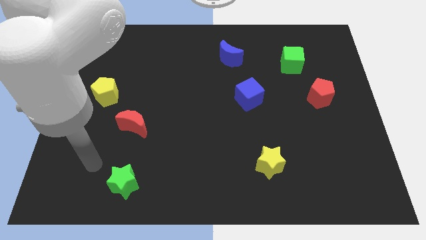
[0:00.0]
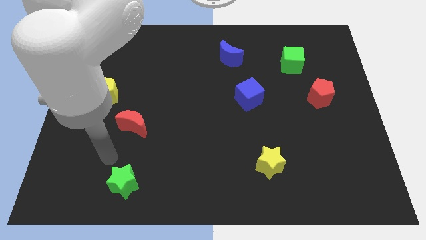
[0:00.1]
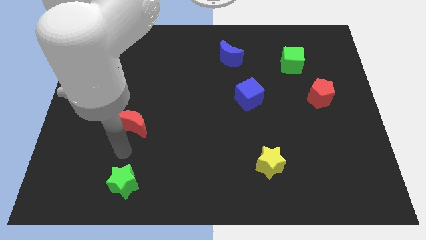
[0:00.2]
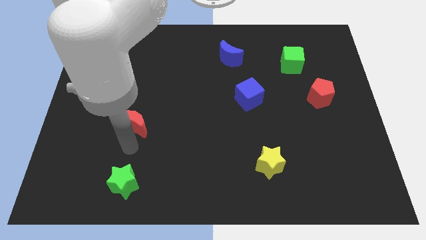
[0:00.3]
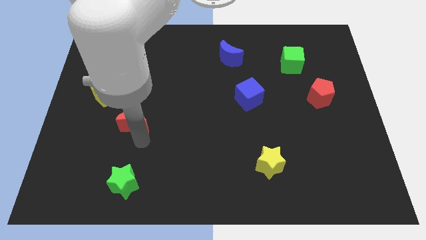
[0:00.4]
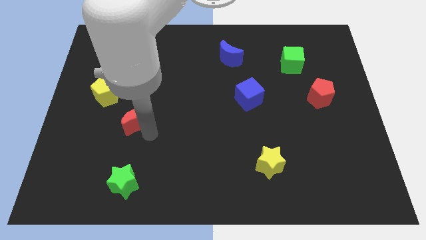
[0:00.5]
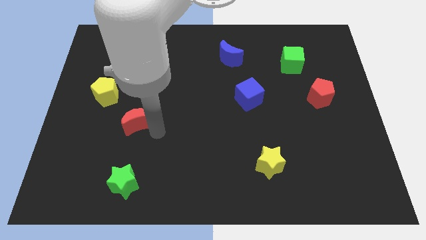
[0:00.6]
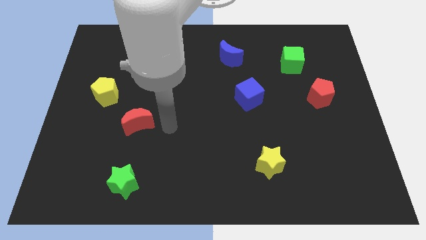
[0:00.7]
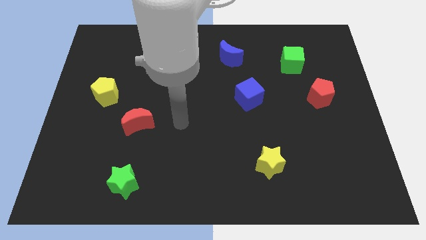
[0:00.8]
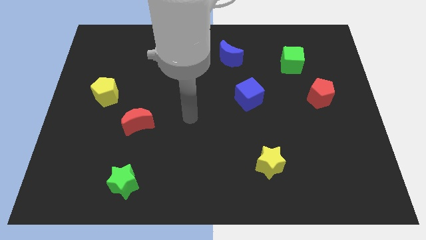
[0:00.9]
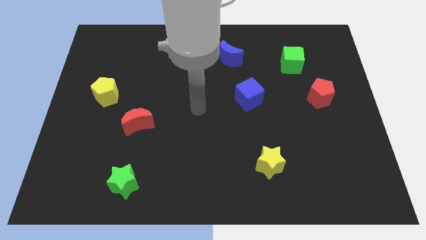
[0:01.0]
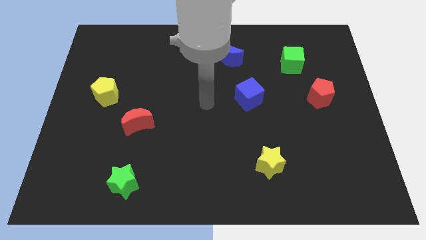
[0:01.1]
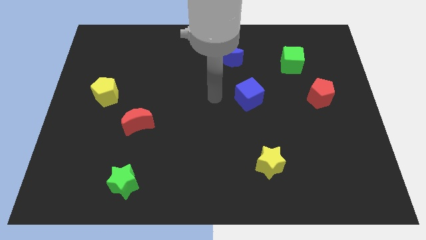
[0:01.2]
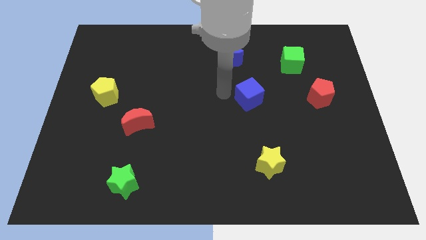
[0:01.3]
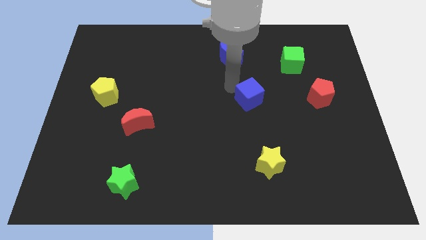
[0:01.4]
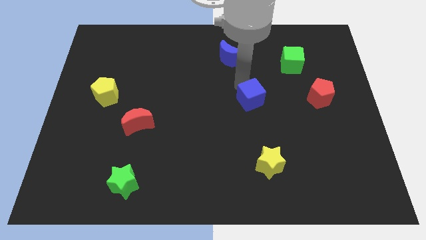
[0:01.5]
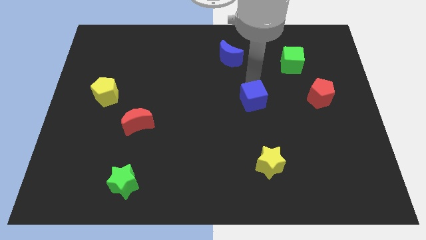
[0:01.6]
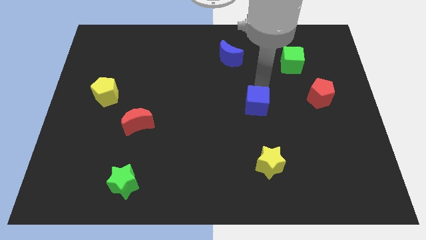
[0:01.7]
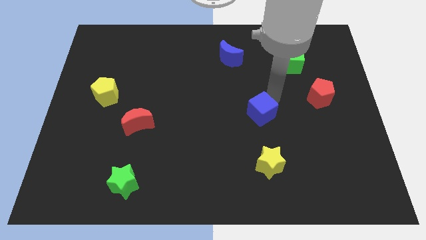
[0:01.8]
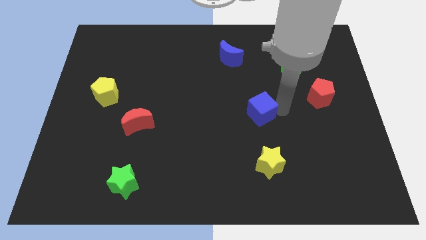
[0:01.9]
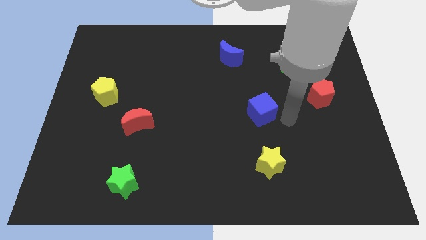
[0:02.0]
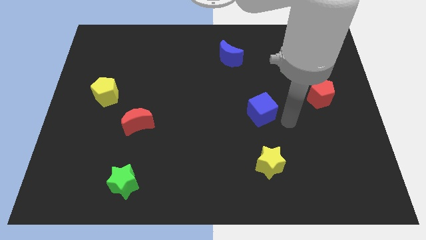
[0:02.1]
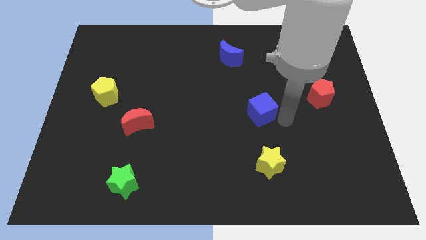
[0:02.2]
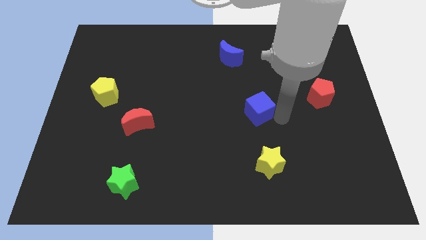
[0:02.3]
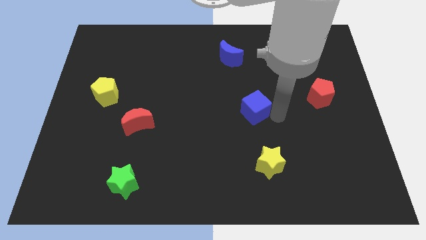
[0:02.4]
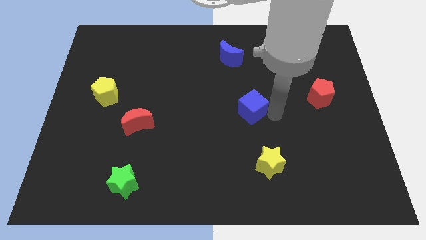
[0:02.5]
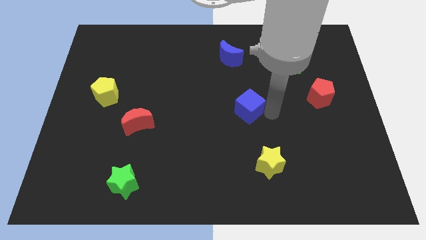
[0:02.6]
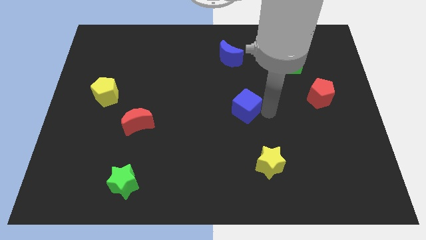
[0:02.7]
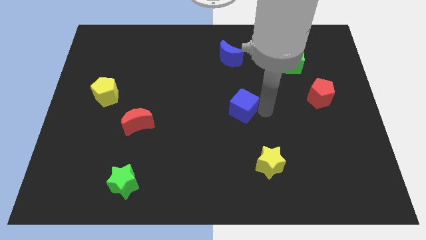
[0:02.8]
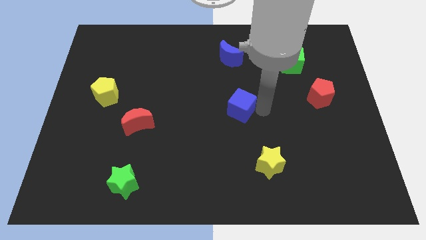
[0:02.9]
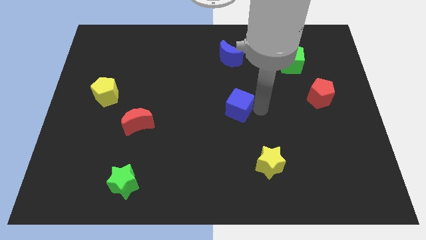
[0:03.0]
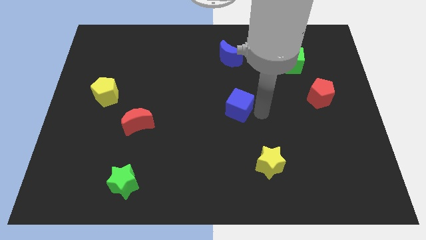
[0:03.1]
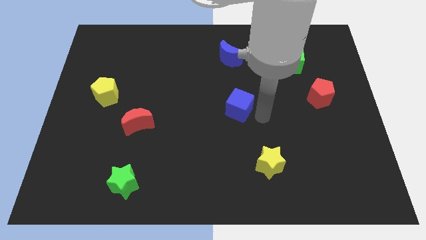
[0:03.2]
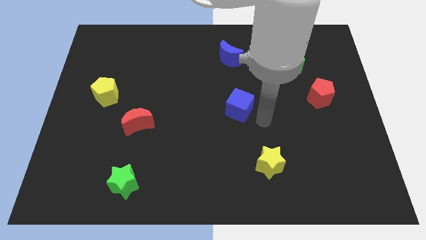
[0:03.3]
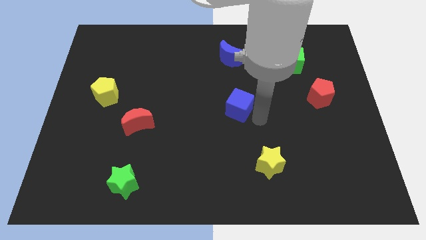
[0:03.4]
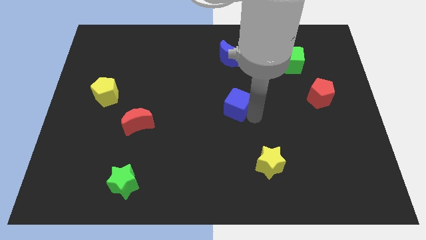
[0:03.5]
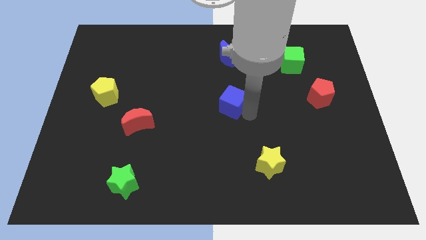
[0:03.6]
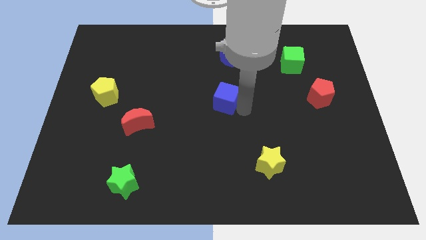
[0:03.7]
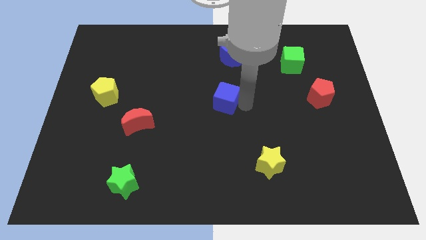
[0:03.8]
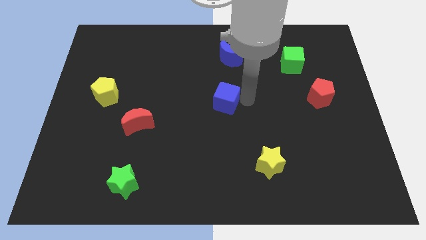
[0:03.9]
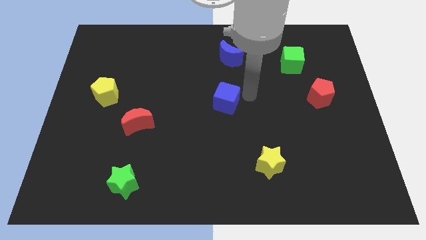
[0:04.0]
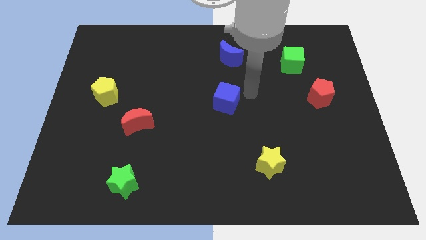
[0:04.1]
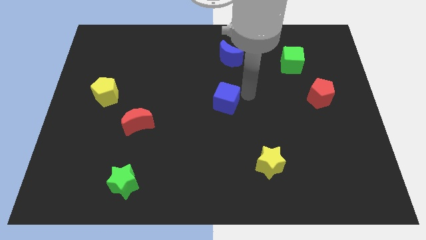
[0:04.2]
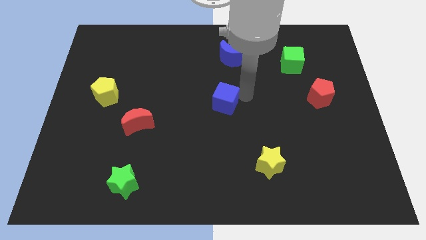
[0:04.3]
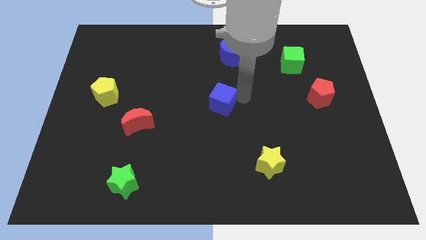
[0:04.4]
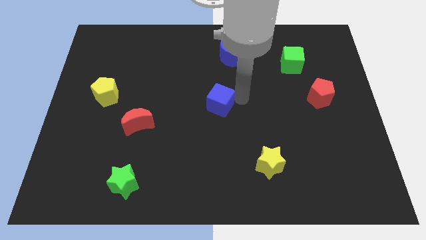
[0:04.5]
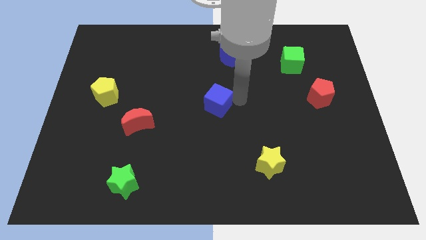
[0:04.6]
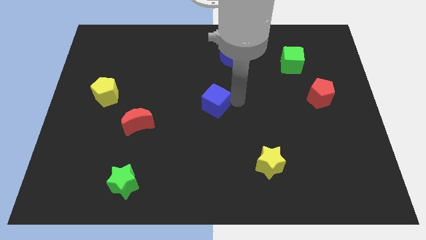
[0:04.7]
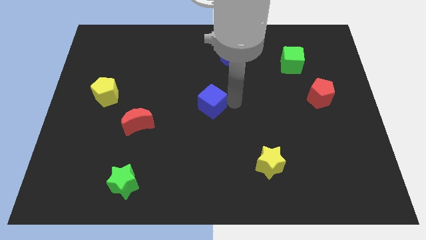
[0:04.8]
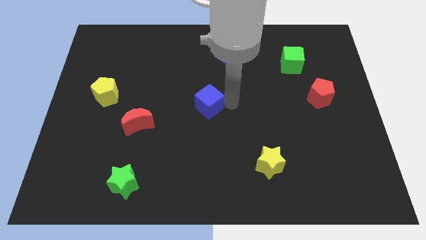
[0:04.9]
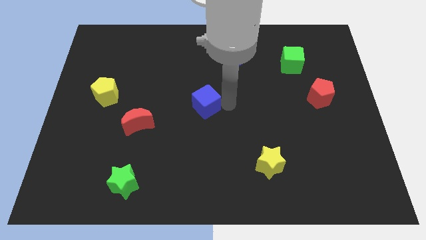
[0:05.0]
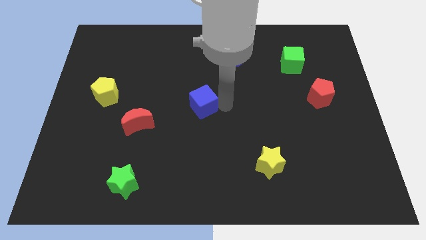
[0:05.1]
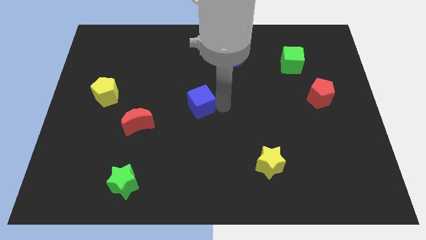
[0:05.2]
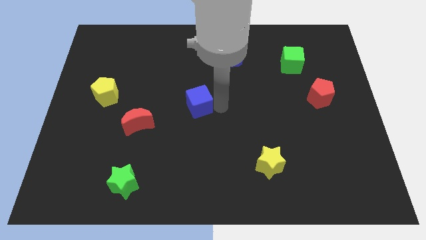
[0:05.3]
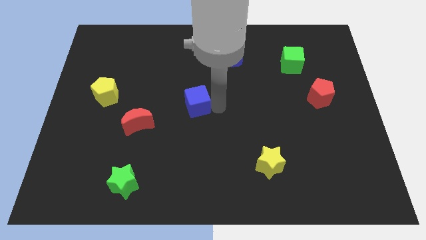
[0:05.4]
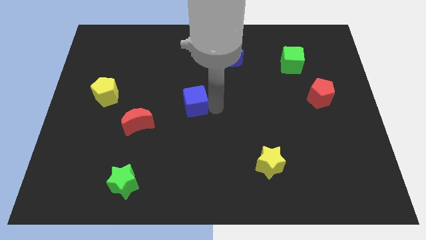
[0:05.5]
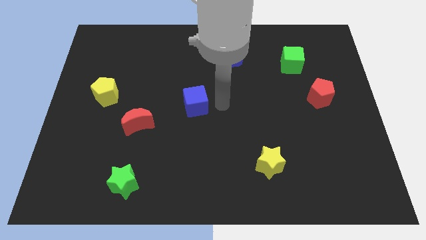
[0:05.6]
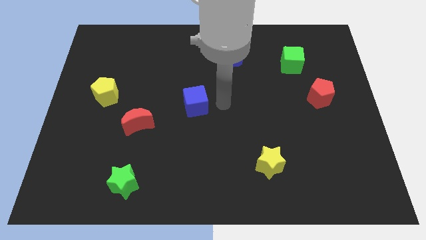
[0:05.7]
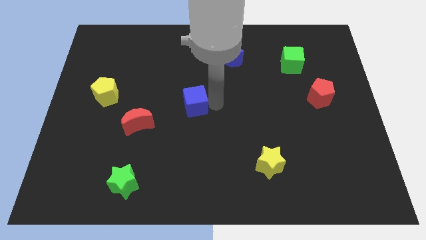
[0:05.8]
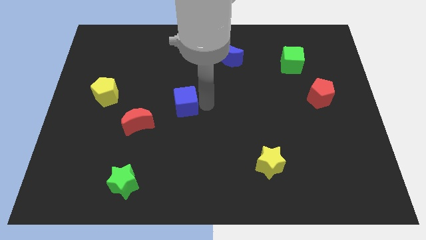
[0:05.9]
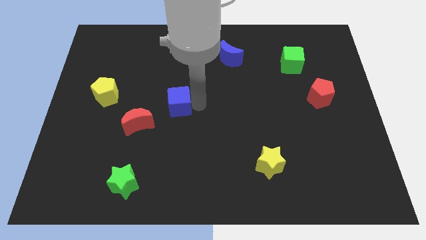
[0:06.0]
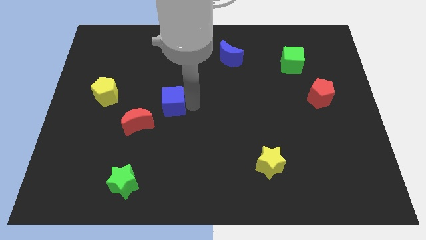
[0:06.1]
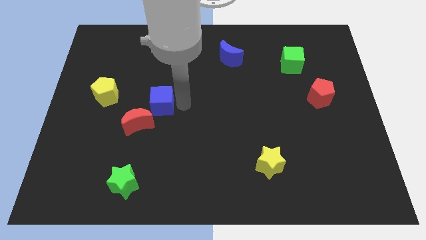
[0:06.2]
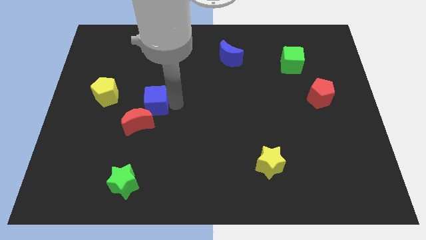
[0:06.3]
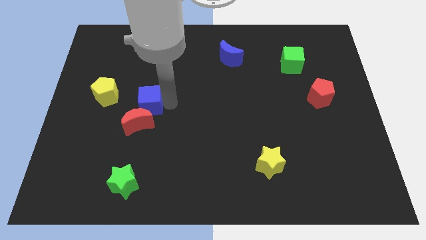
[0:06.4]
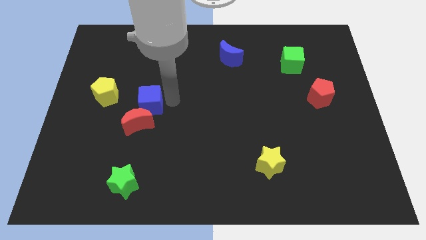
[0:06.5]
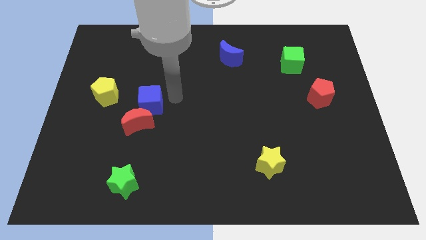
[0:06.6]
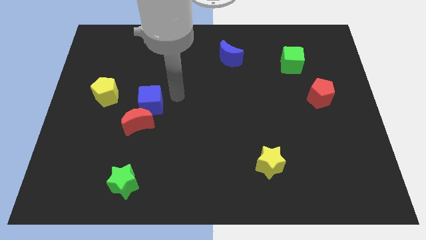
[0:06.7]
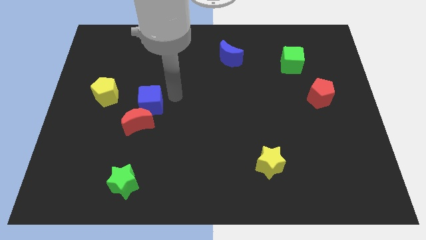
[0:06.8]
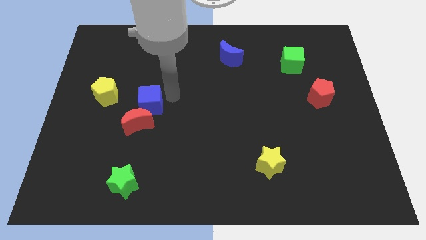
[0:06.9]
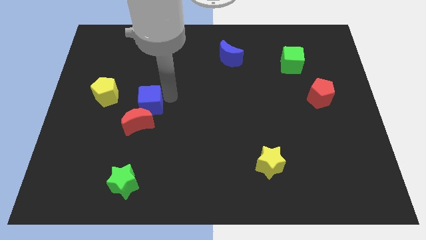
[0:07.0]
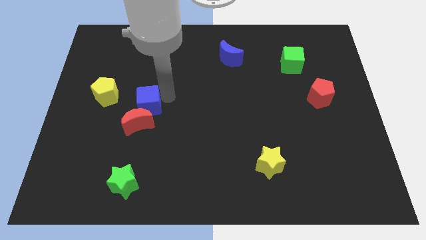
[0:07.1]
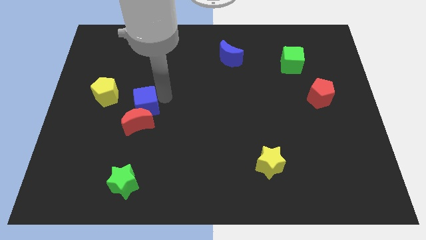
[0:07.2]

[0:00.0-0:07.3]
push the blue cube to the top left side of the red moon
